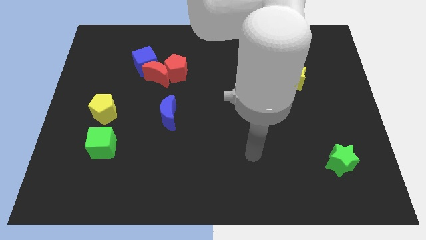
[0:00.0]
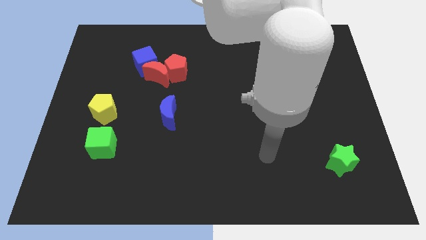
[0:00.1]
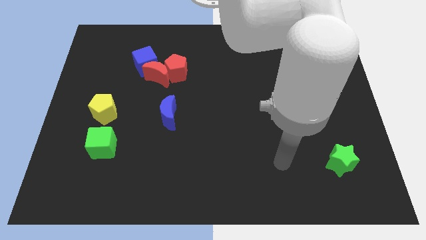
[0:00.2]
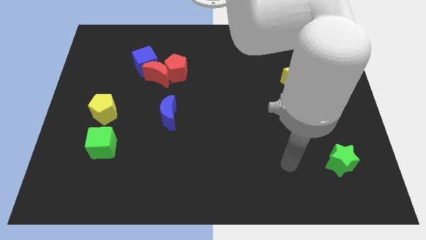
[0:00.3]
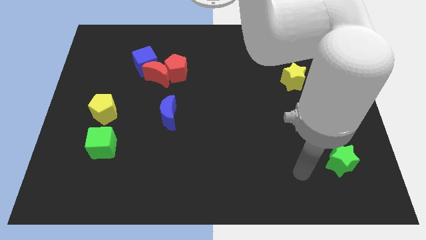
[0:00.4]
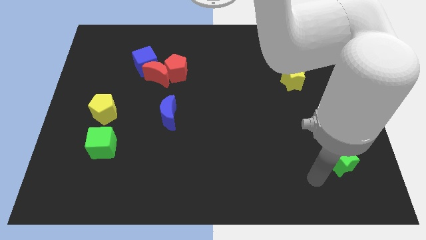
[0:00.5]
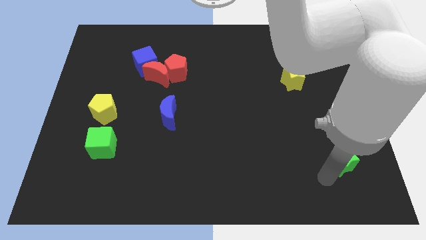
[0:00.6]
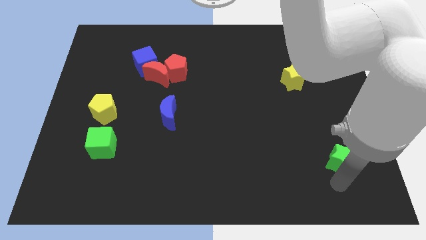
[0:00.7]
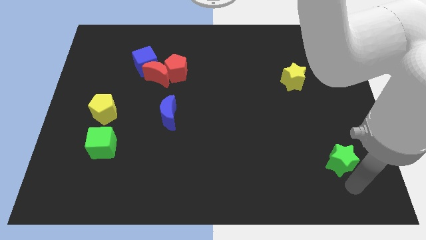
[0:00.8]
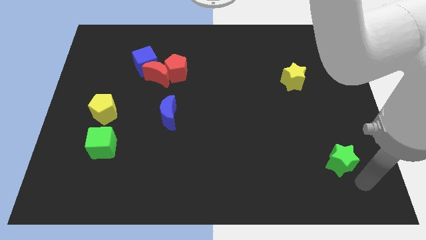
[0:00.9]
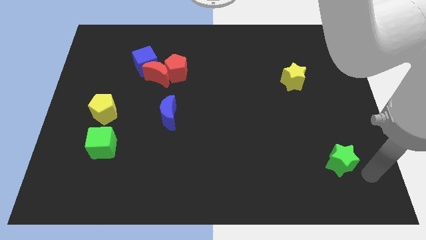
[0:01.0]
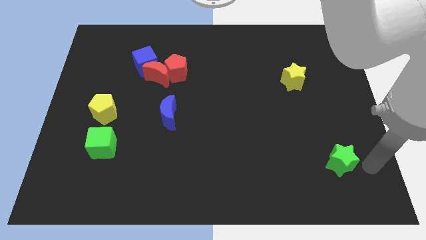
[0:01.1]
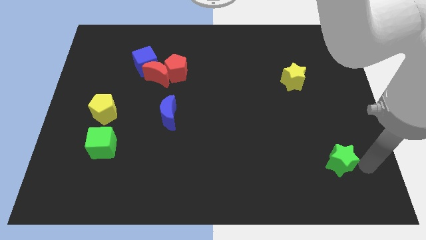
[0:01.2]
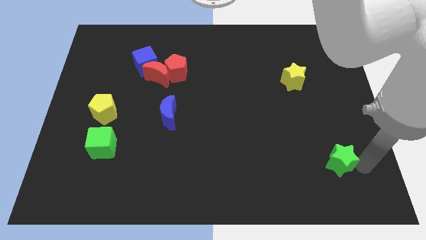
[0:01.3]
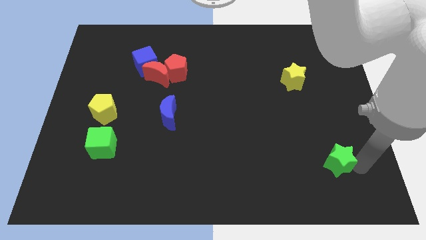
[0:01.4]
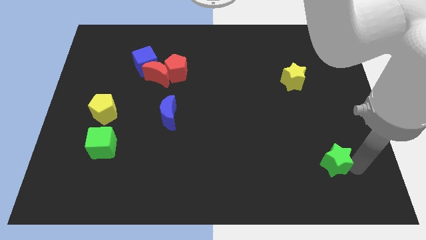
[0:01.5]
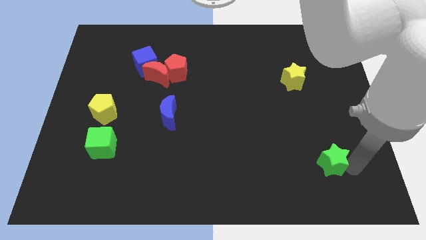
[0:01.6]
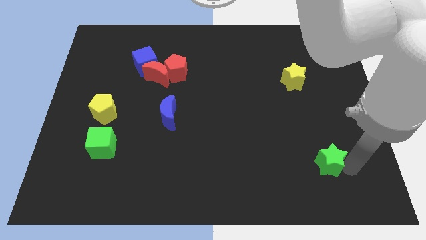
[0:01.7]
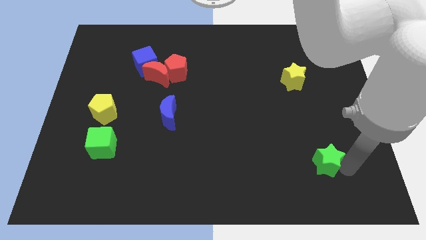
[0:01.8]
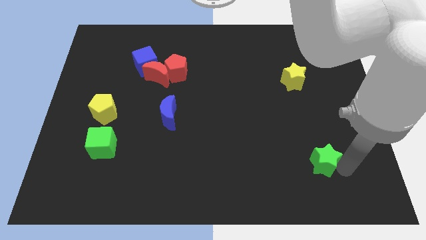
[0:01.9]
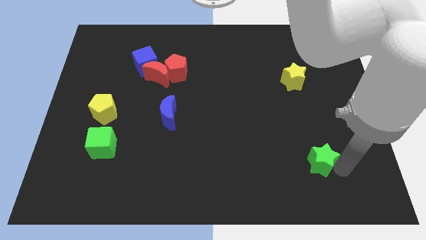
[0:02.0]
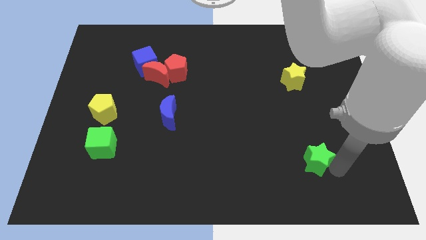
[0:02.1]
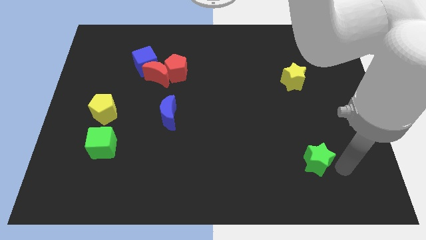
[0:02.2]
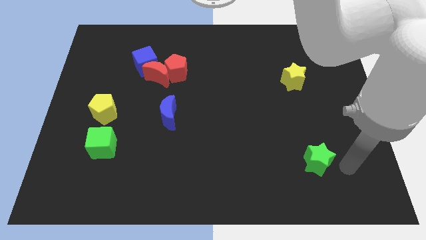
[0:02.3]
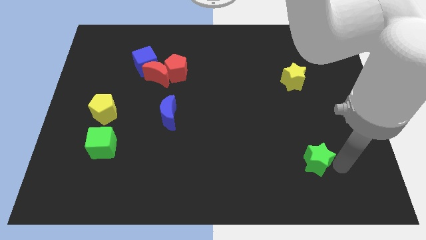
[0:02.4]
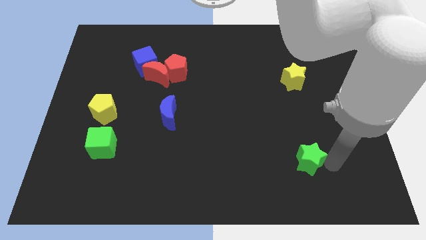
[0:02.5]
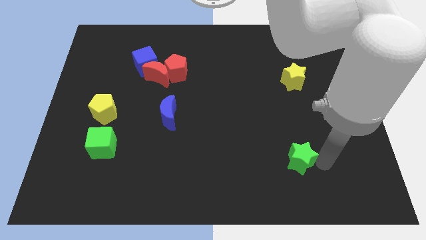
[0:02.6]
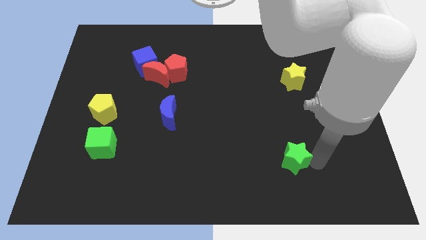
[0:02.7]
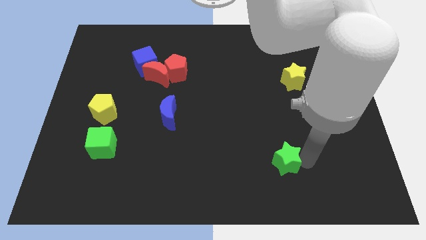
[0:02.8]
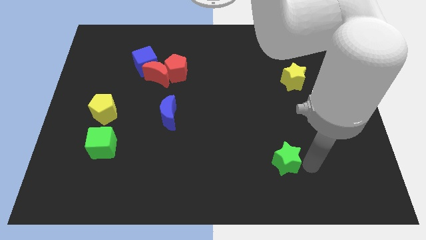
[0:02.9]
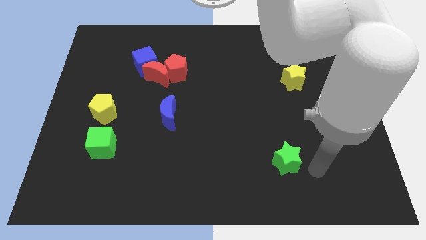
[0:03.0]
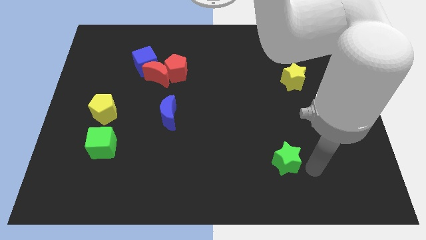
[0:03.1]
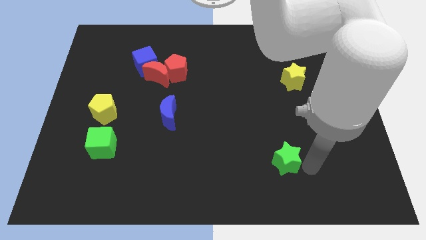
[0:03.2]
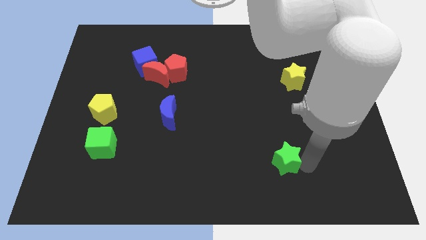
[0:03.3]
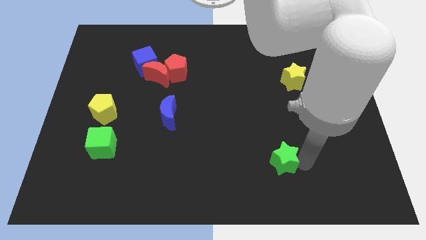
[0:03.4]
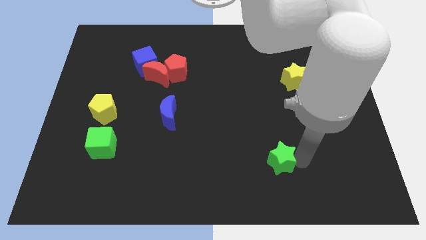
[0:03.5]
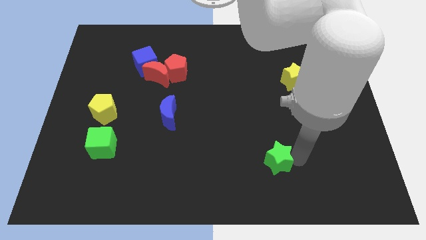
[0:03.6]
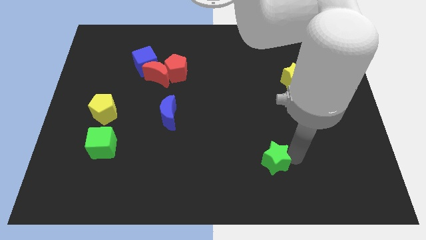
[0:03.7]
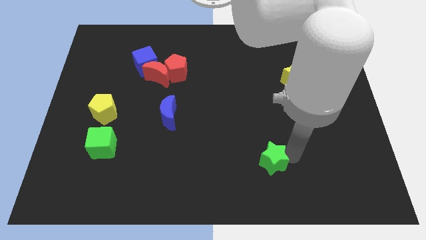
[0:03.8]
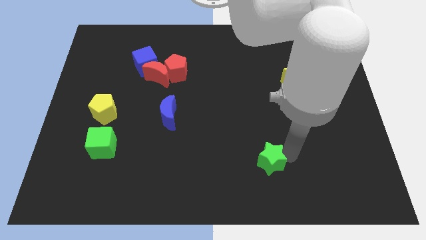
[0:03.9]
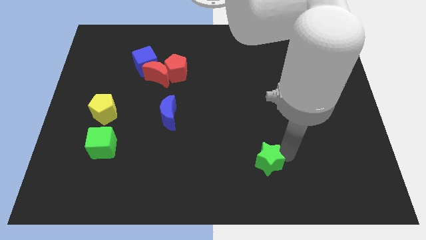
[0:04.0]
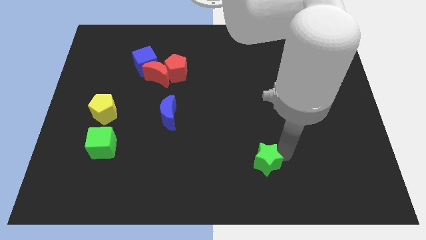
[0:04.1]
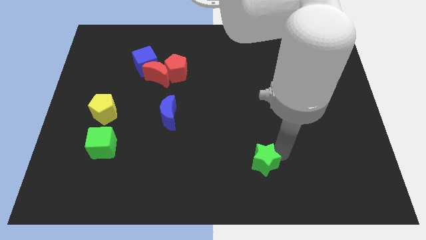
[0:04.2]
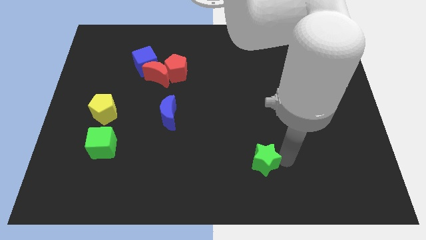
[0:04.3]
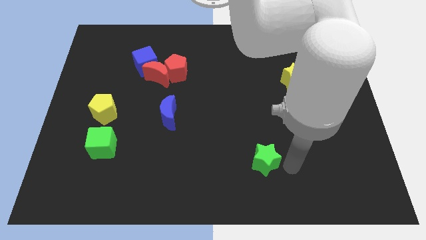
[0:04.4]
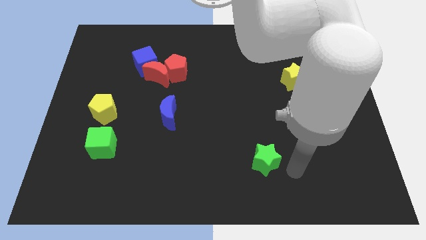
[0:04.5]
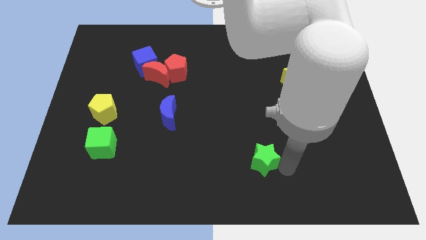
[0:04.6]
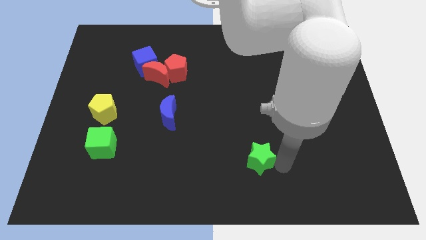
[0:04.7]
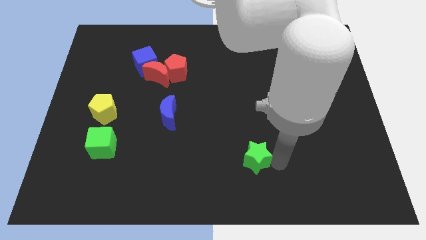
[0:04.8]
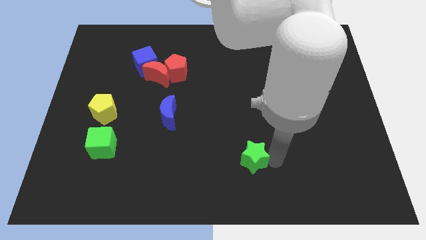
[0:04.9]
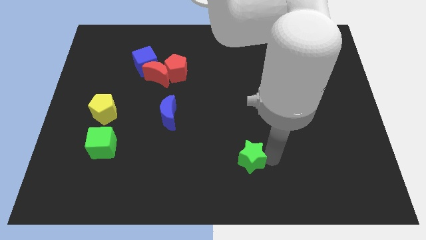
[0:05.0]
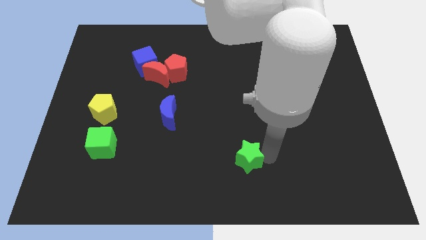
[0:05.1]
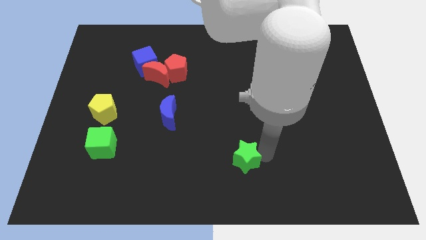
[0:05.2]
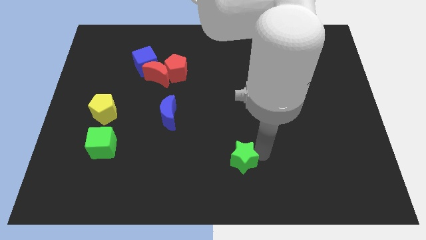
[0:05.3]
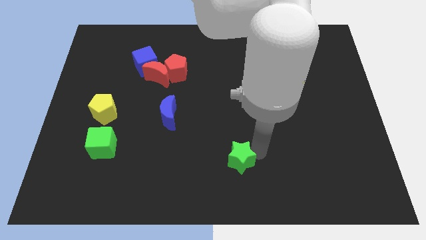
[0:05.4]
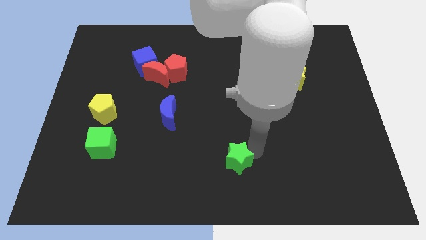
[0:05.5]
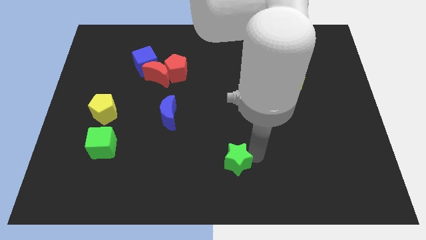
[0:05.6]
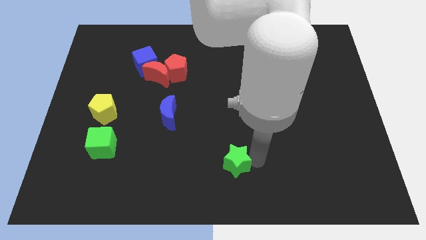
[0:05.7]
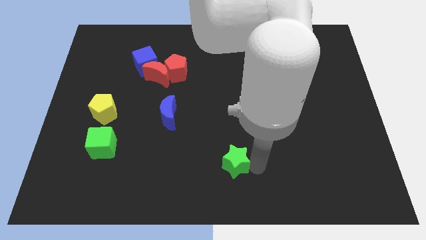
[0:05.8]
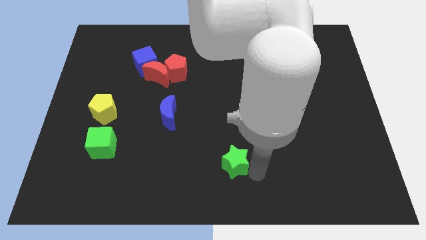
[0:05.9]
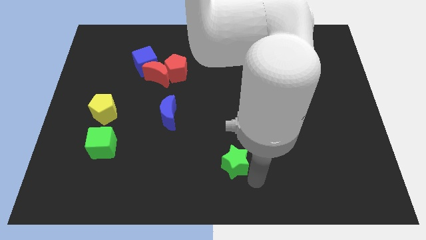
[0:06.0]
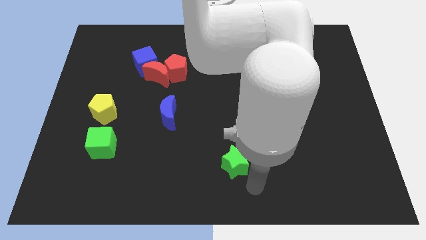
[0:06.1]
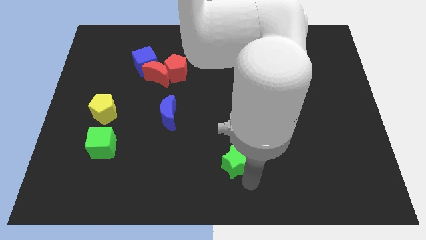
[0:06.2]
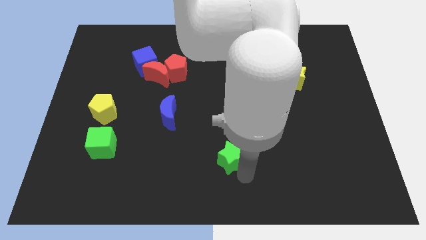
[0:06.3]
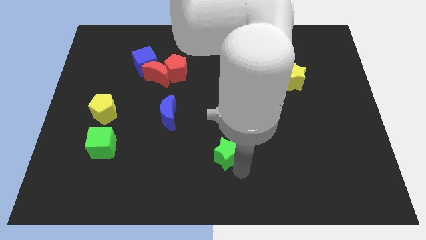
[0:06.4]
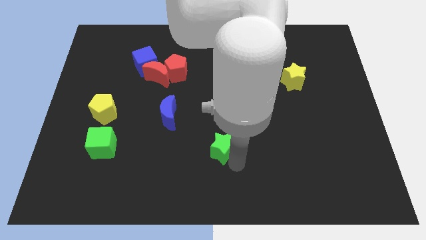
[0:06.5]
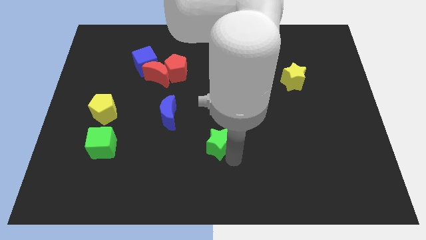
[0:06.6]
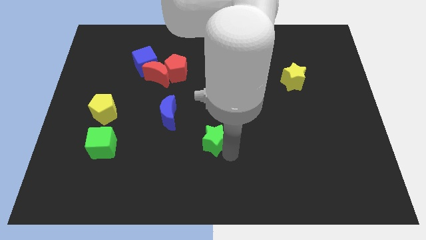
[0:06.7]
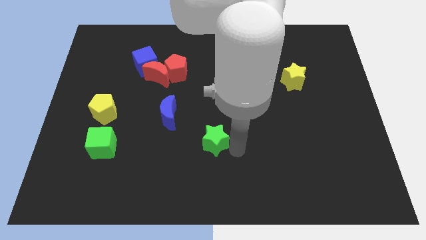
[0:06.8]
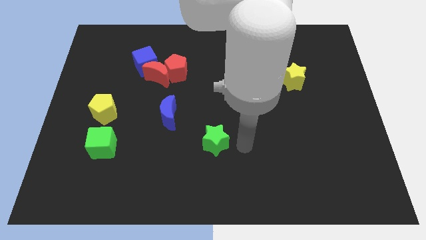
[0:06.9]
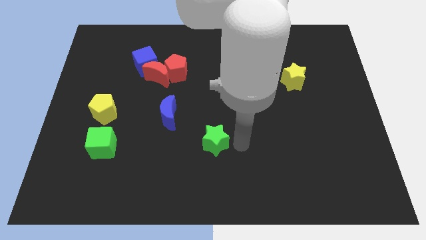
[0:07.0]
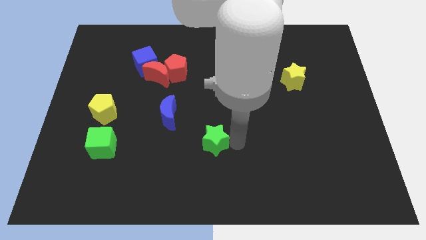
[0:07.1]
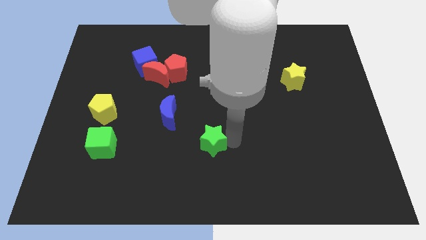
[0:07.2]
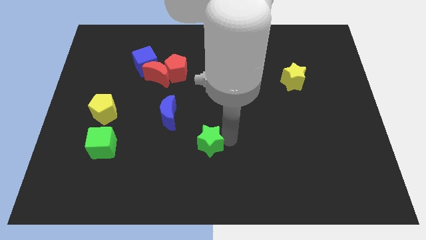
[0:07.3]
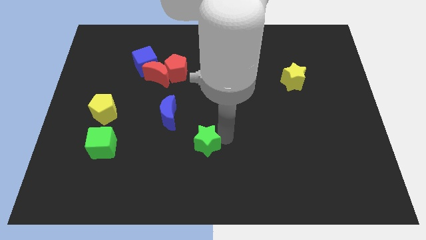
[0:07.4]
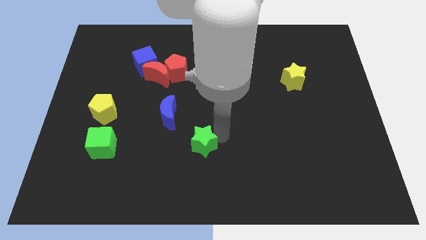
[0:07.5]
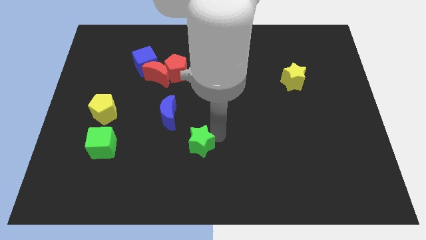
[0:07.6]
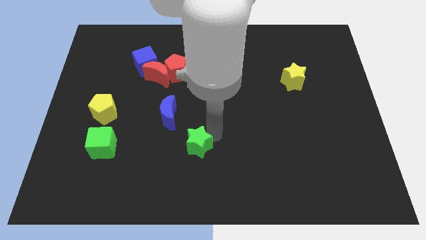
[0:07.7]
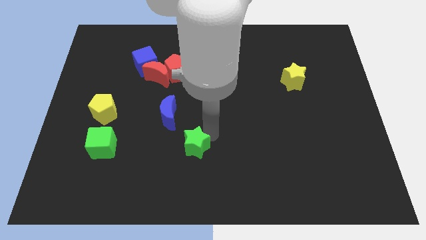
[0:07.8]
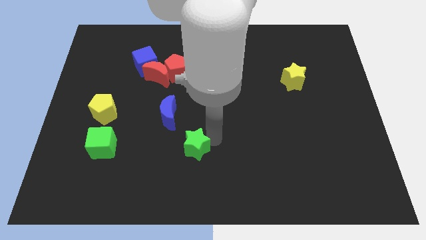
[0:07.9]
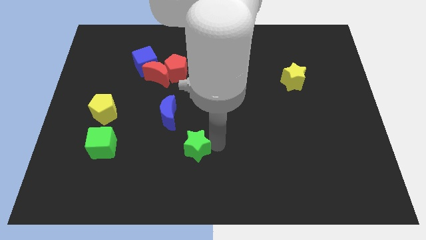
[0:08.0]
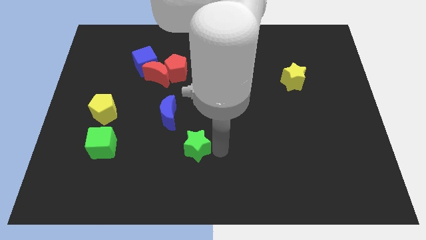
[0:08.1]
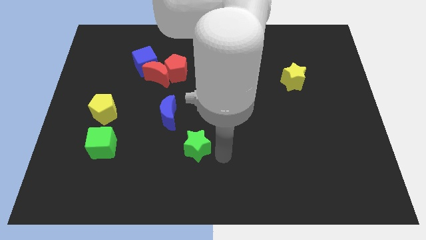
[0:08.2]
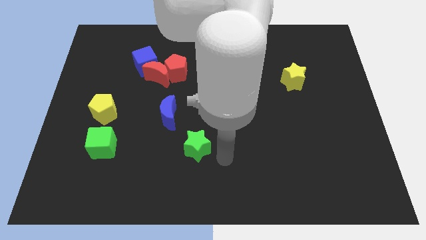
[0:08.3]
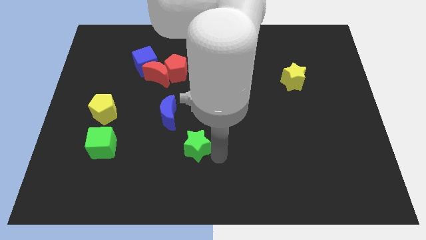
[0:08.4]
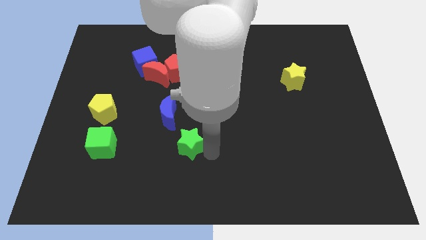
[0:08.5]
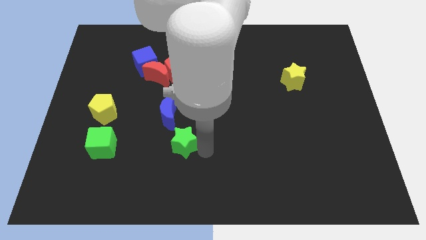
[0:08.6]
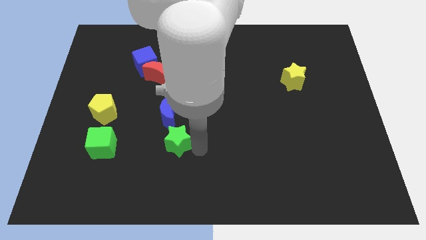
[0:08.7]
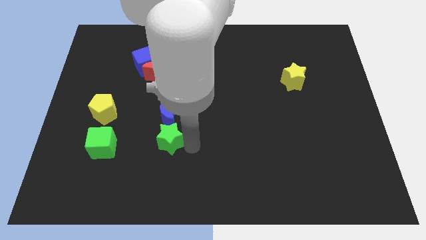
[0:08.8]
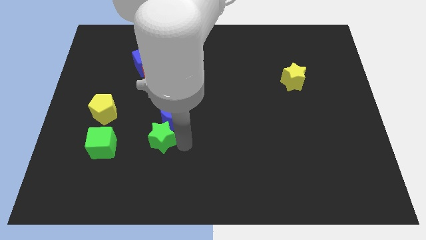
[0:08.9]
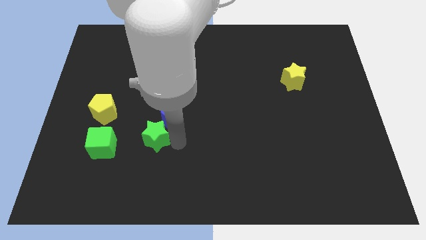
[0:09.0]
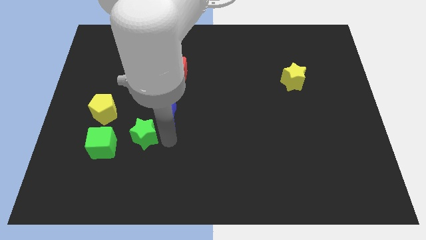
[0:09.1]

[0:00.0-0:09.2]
slide the green star to the bottom right side of the yellow pentagon
